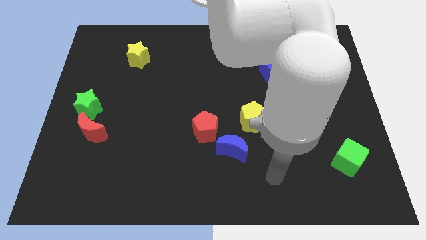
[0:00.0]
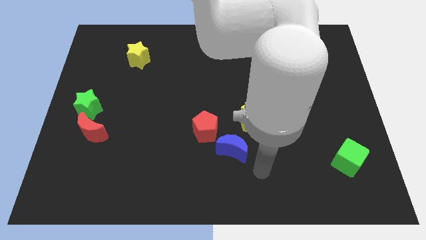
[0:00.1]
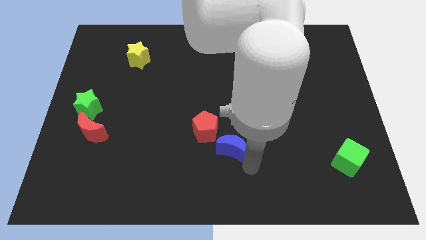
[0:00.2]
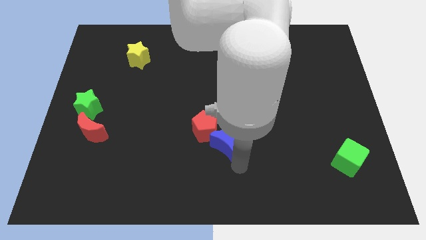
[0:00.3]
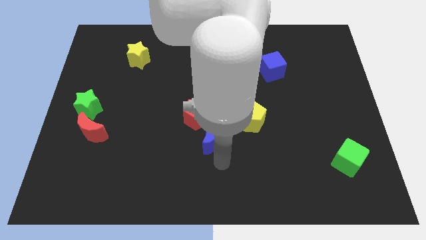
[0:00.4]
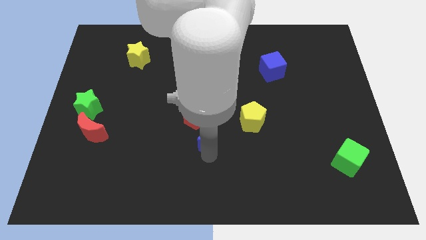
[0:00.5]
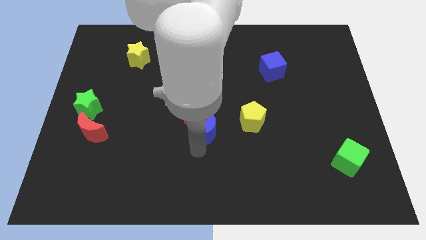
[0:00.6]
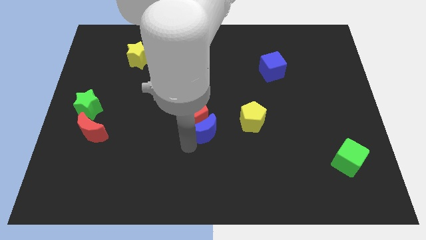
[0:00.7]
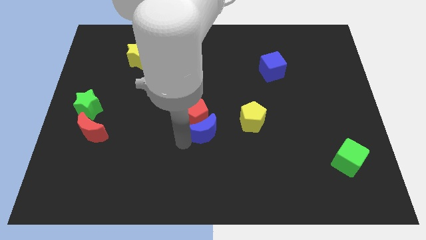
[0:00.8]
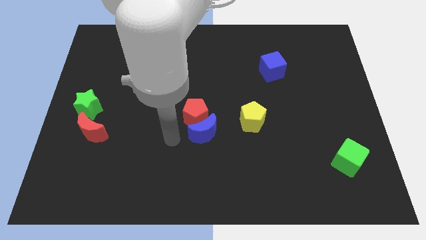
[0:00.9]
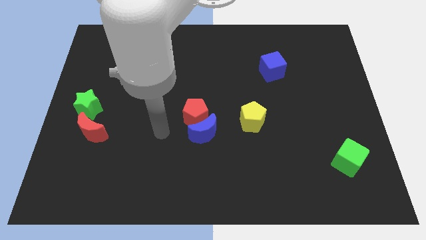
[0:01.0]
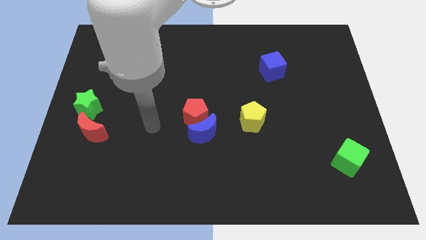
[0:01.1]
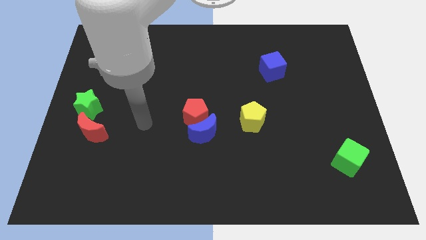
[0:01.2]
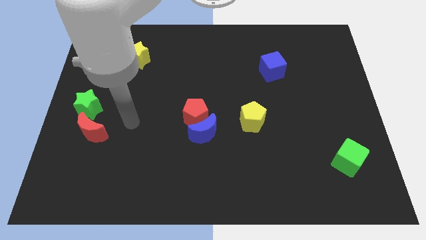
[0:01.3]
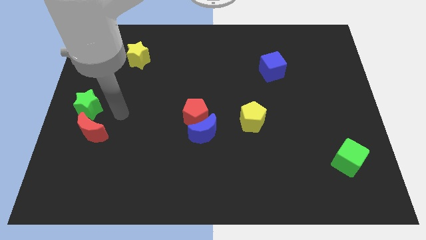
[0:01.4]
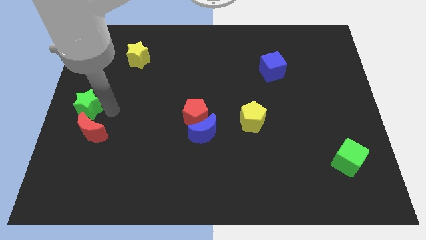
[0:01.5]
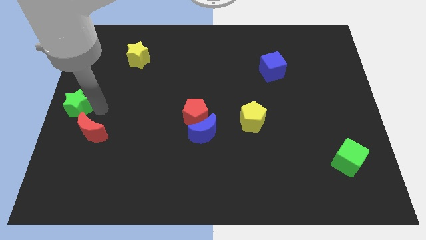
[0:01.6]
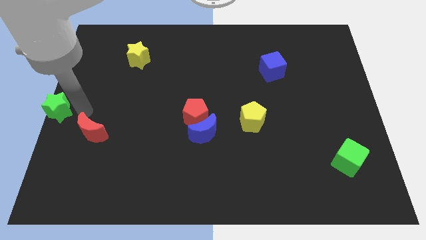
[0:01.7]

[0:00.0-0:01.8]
separate the red moon from the green star

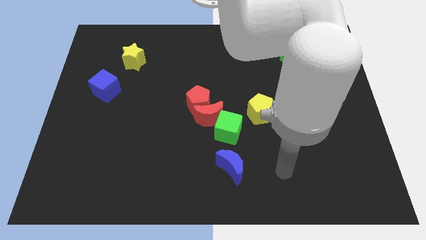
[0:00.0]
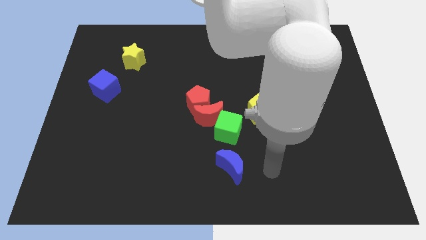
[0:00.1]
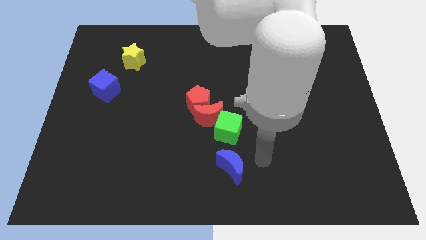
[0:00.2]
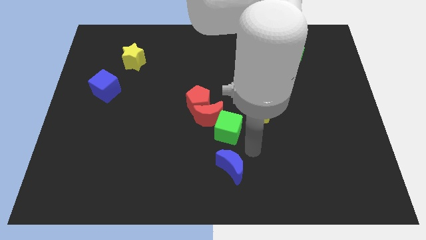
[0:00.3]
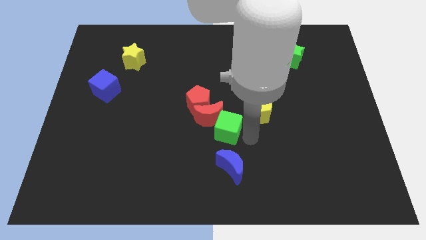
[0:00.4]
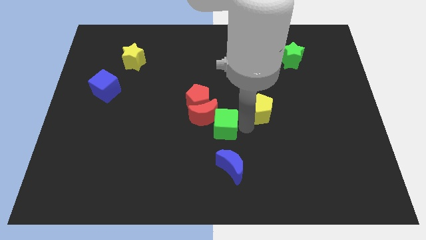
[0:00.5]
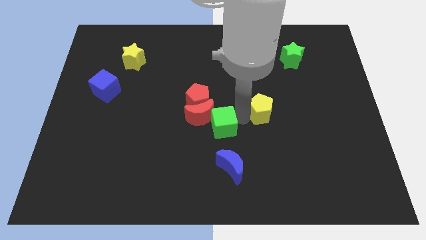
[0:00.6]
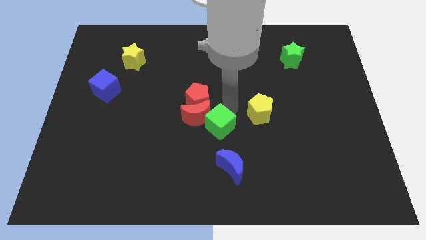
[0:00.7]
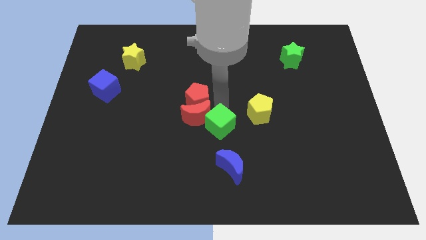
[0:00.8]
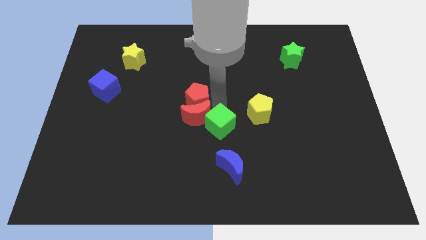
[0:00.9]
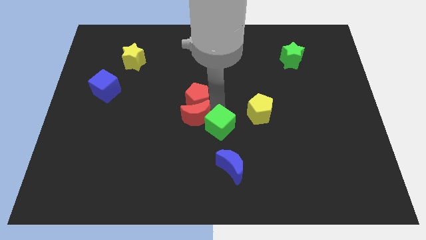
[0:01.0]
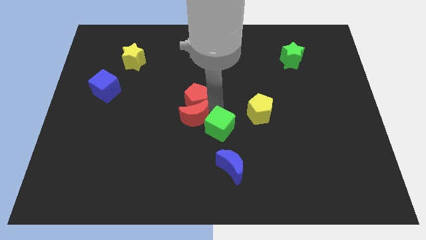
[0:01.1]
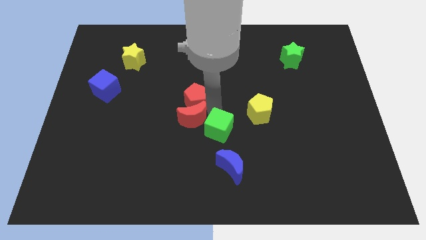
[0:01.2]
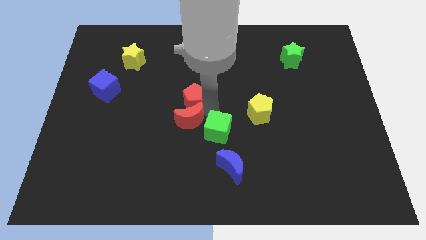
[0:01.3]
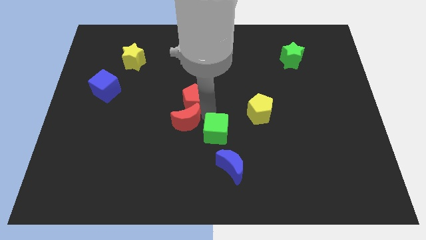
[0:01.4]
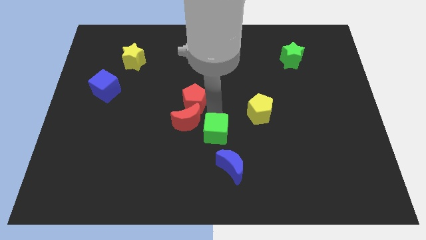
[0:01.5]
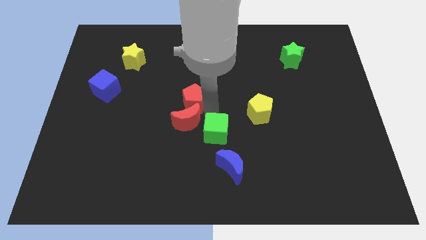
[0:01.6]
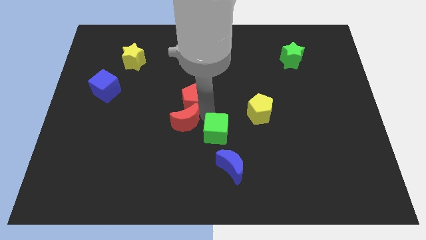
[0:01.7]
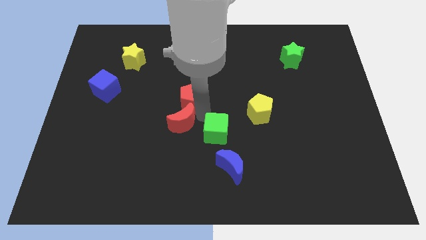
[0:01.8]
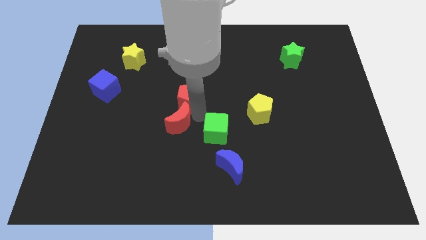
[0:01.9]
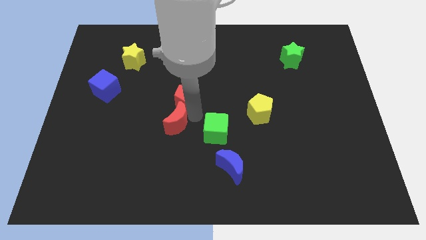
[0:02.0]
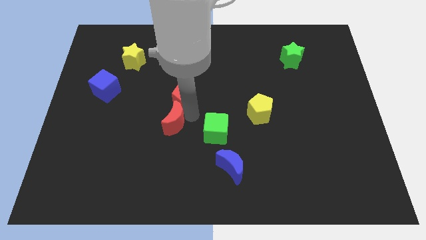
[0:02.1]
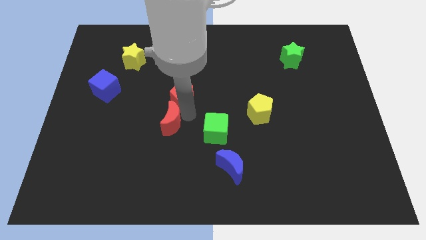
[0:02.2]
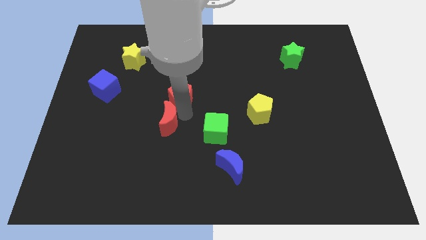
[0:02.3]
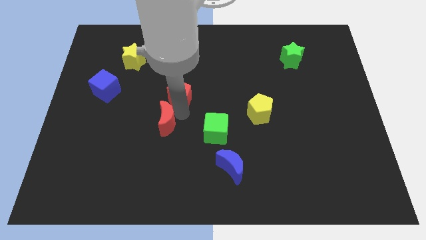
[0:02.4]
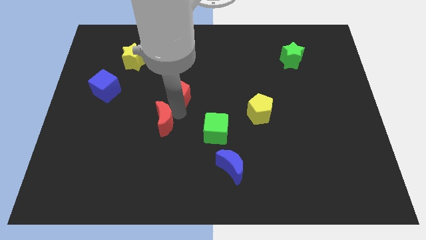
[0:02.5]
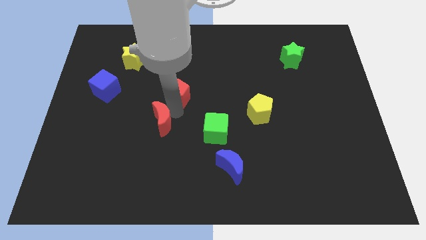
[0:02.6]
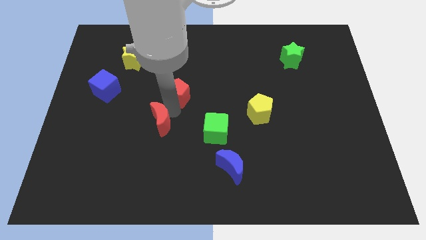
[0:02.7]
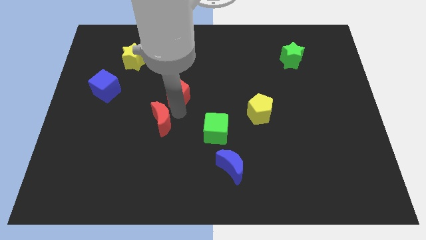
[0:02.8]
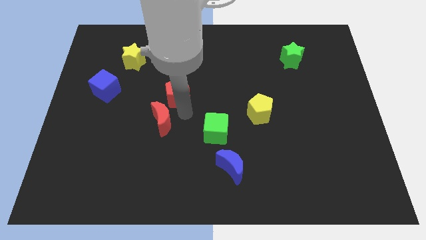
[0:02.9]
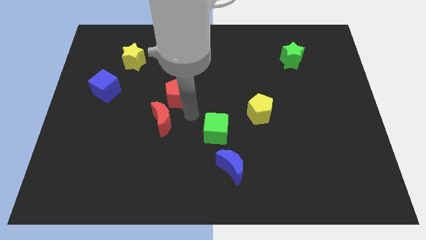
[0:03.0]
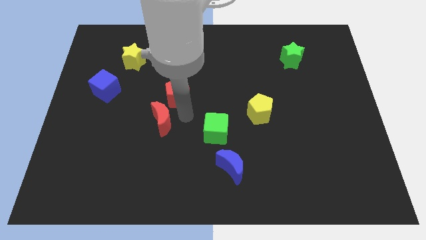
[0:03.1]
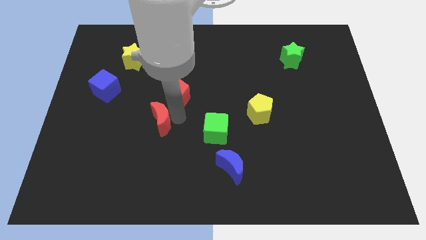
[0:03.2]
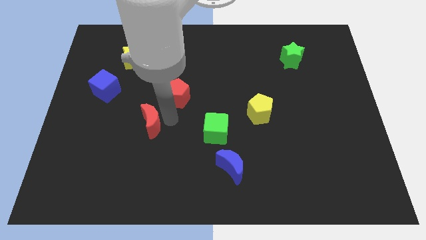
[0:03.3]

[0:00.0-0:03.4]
separate the red moon from the red pentagon and green cube

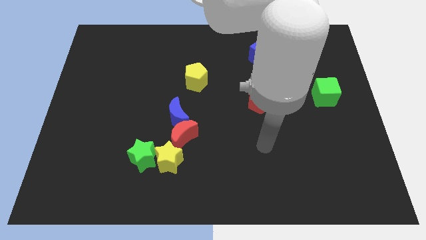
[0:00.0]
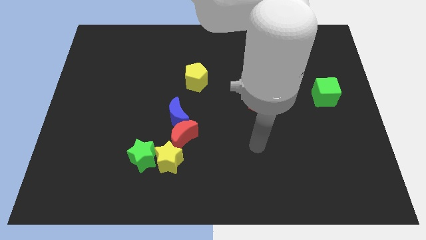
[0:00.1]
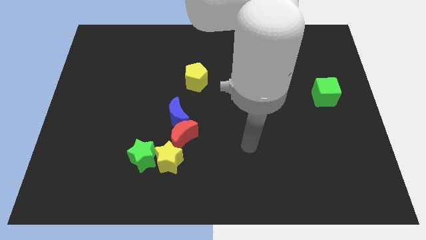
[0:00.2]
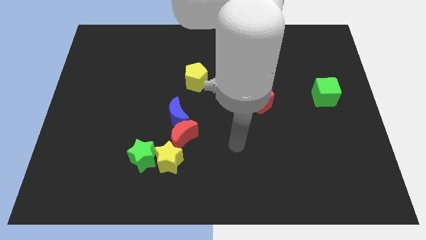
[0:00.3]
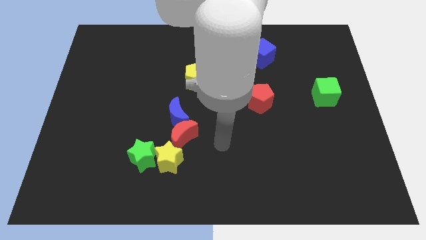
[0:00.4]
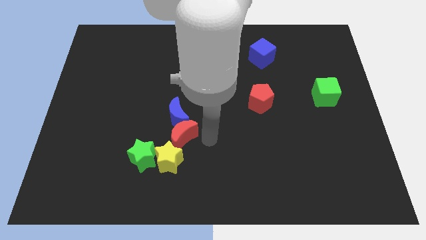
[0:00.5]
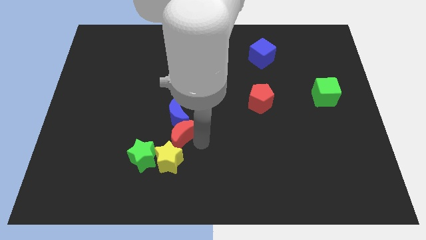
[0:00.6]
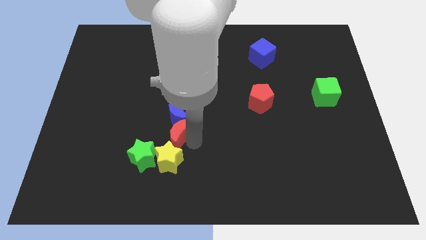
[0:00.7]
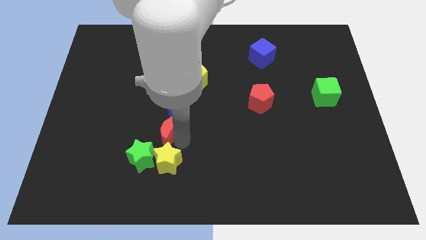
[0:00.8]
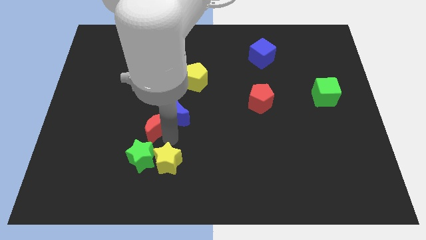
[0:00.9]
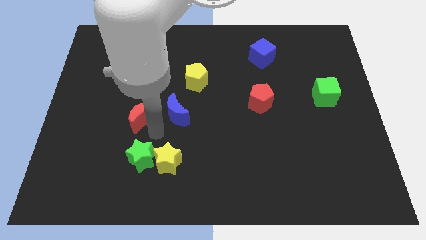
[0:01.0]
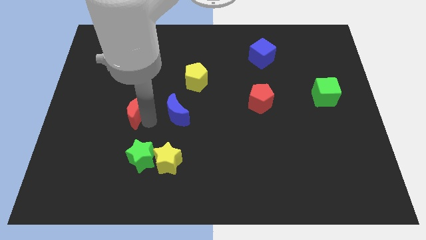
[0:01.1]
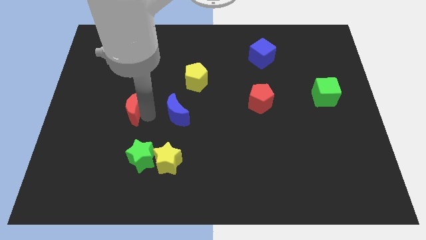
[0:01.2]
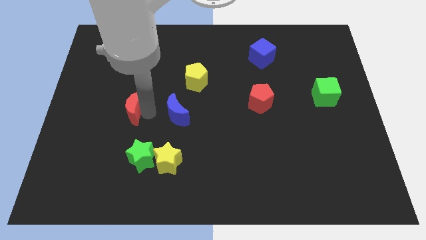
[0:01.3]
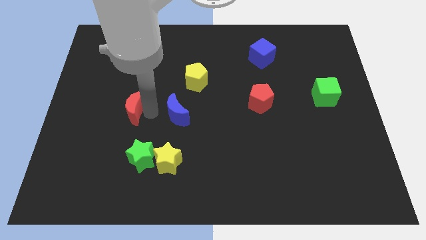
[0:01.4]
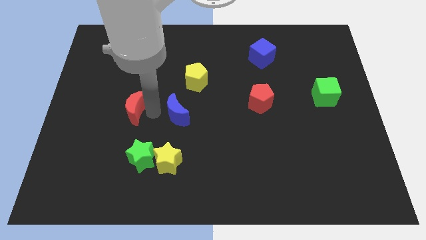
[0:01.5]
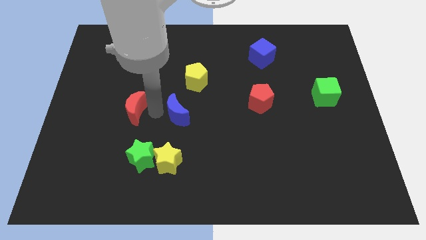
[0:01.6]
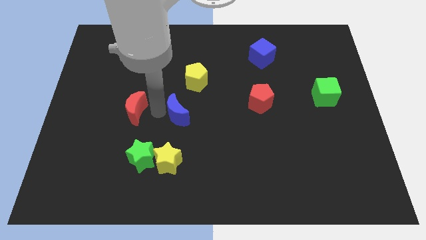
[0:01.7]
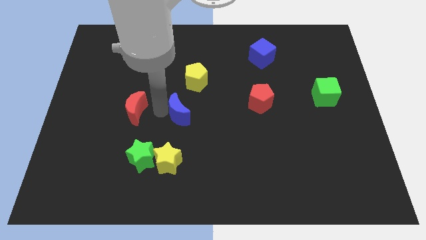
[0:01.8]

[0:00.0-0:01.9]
pull the blue moon apart from the red moon

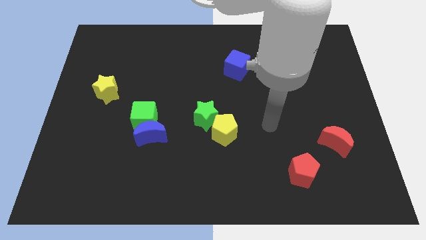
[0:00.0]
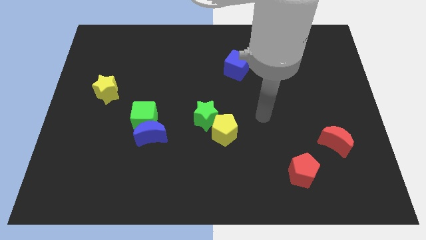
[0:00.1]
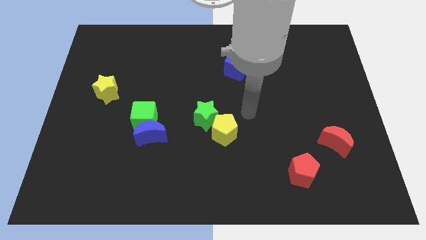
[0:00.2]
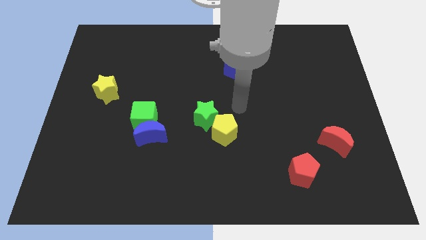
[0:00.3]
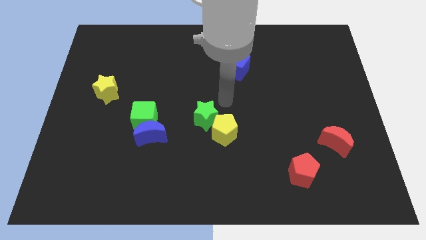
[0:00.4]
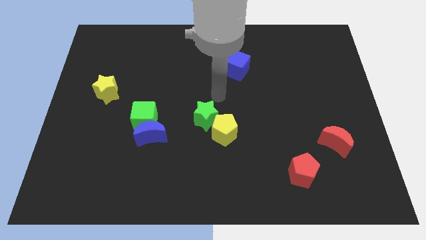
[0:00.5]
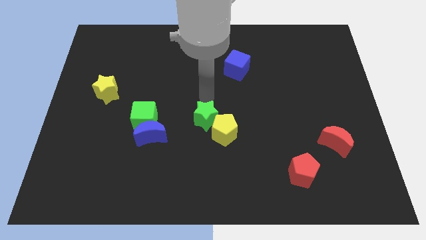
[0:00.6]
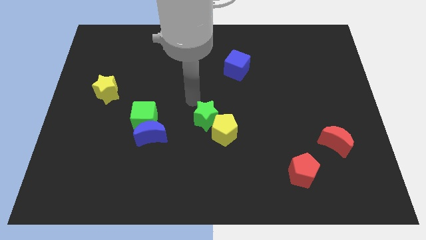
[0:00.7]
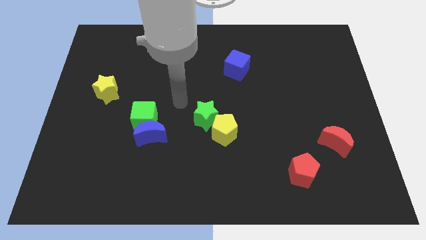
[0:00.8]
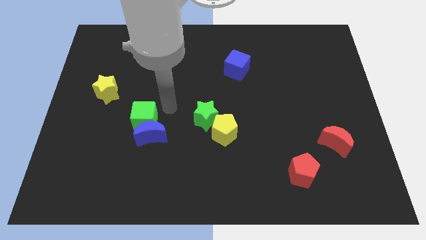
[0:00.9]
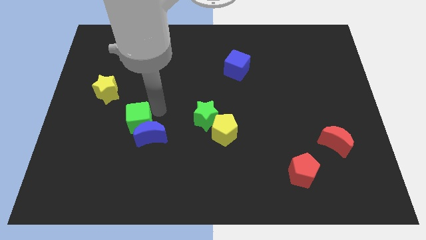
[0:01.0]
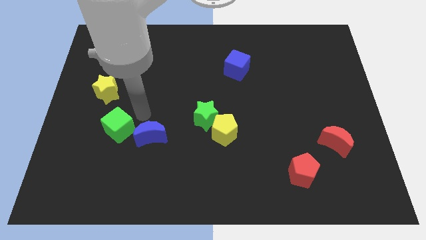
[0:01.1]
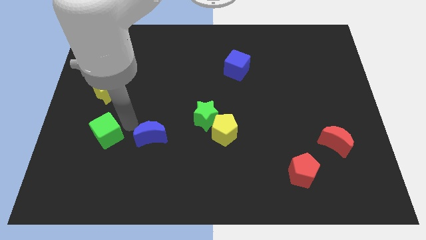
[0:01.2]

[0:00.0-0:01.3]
pull the blue moon apart from the green cube

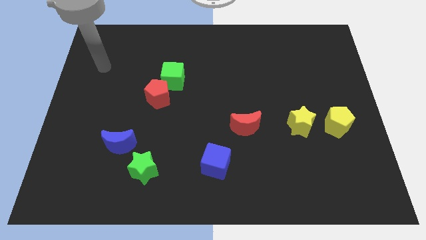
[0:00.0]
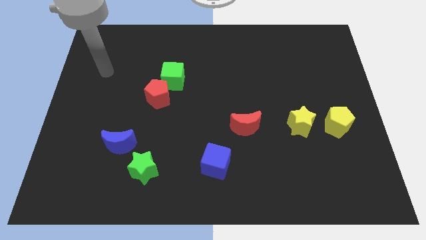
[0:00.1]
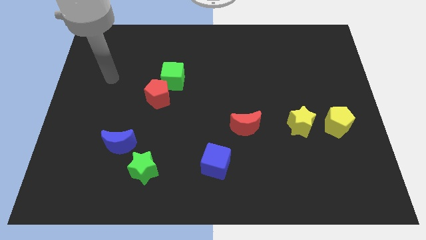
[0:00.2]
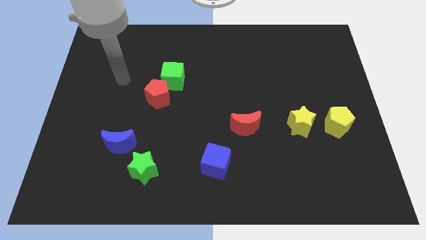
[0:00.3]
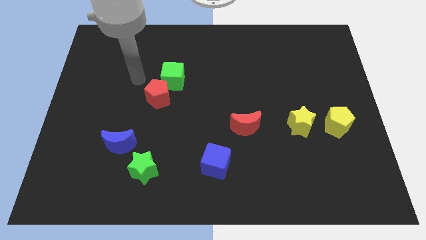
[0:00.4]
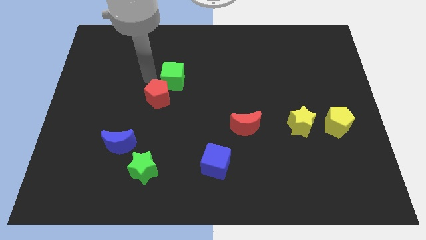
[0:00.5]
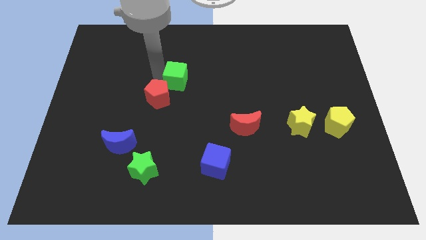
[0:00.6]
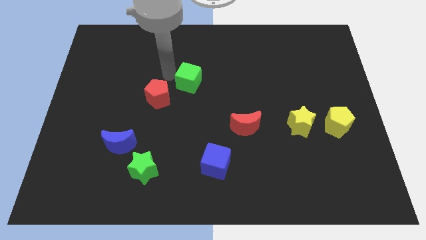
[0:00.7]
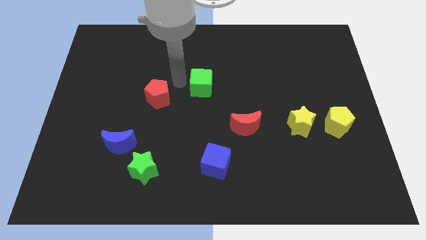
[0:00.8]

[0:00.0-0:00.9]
move the red pentagon away from the green cube
